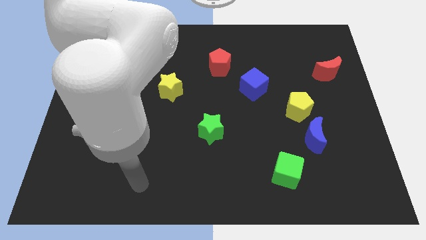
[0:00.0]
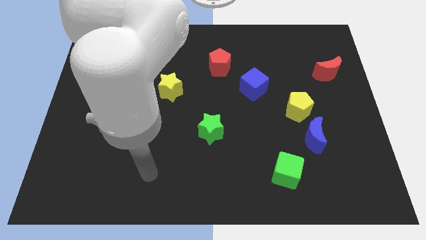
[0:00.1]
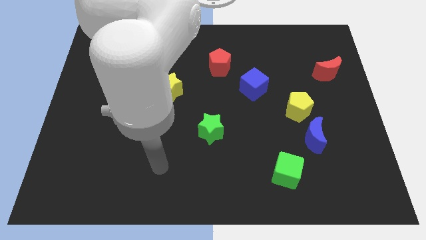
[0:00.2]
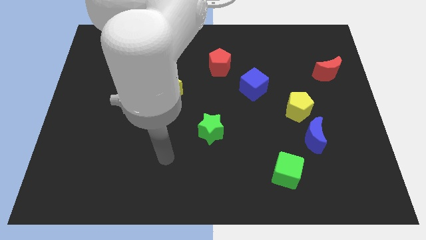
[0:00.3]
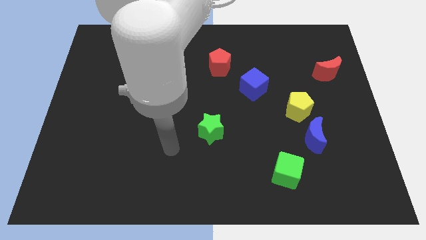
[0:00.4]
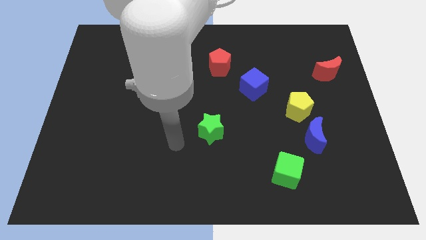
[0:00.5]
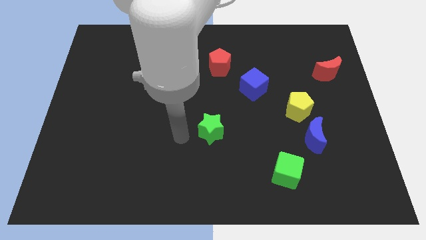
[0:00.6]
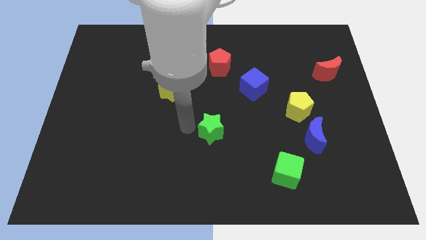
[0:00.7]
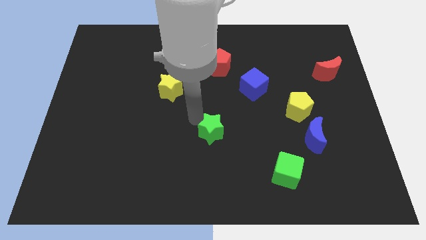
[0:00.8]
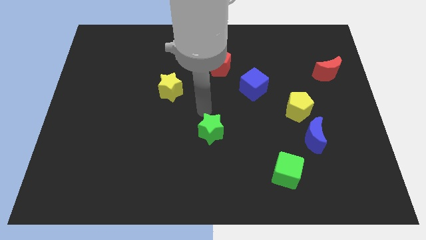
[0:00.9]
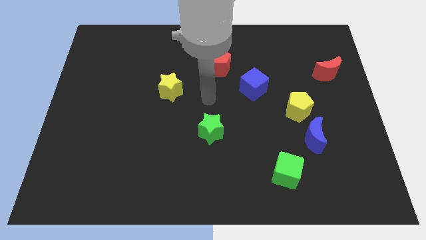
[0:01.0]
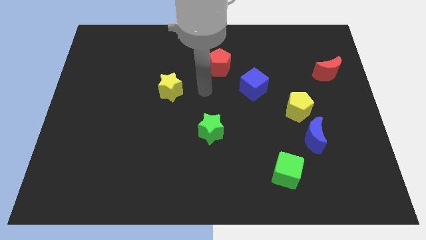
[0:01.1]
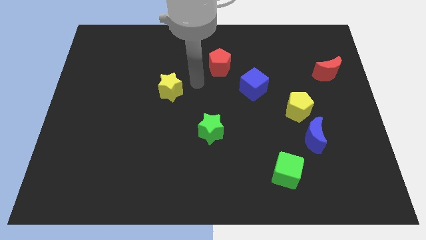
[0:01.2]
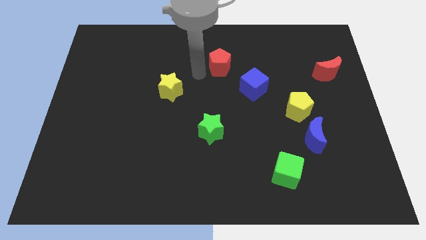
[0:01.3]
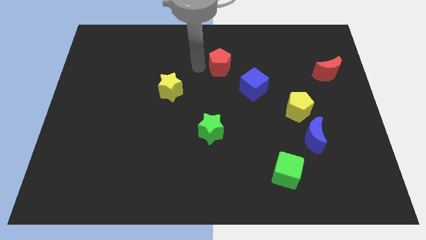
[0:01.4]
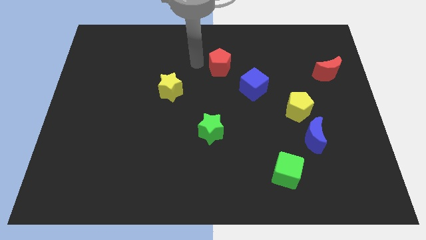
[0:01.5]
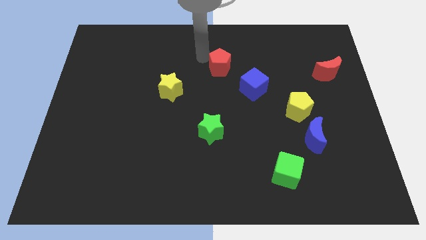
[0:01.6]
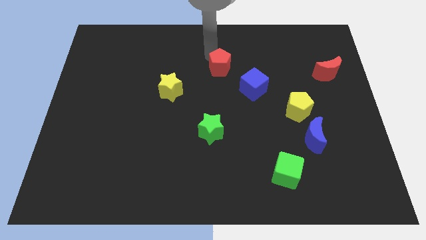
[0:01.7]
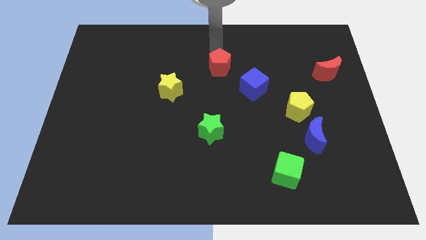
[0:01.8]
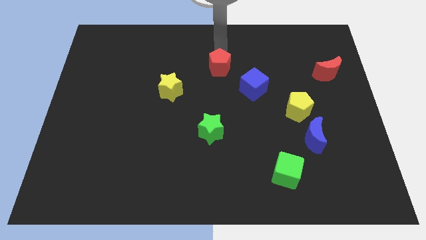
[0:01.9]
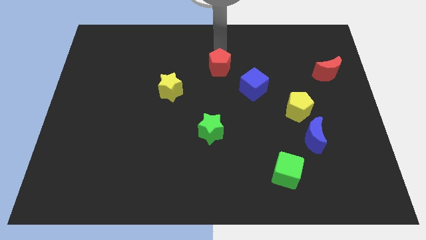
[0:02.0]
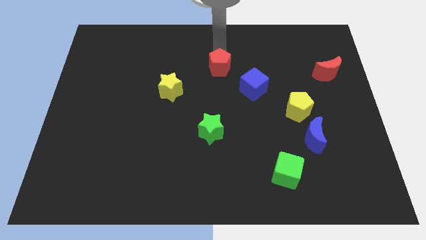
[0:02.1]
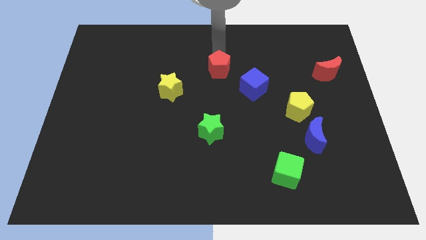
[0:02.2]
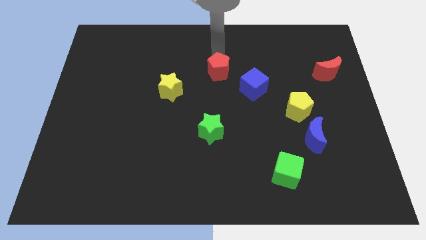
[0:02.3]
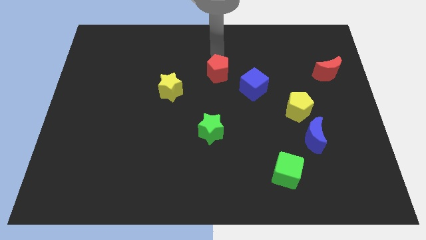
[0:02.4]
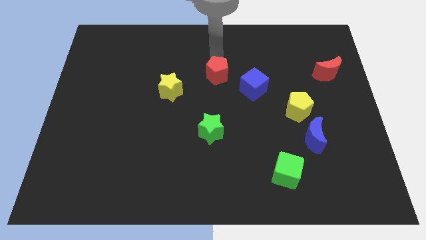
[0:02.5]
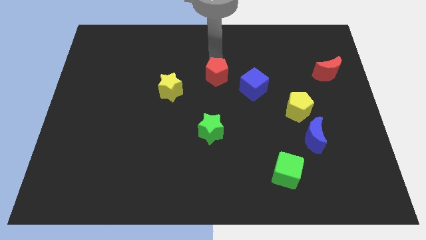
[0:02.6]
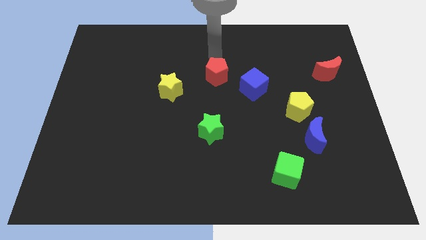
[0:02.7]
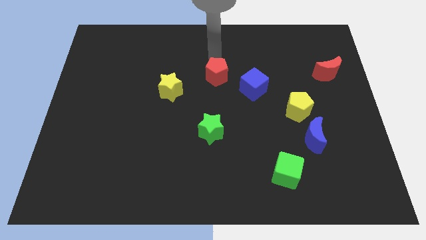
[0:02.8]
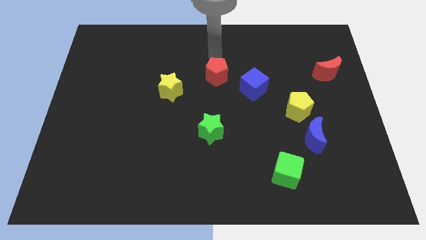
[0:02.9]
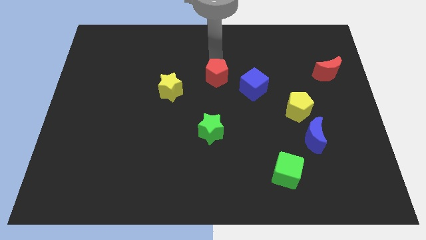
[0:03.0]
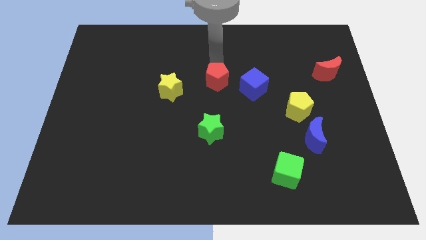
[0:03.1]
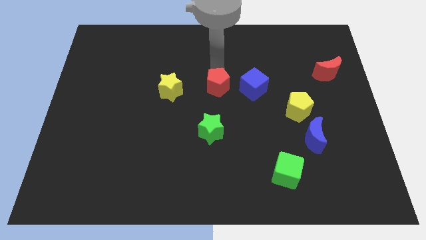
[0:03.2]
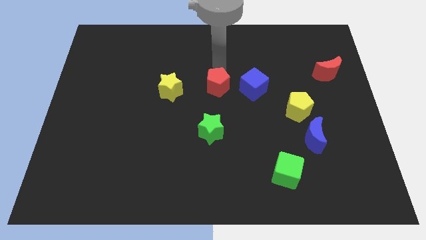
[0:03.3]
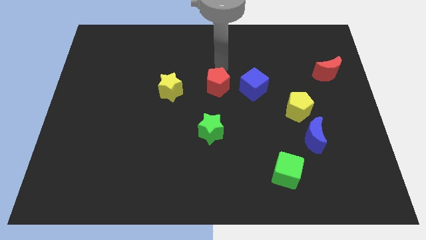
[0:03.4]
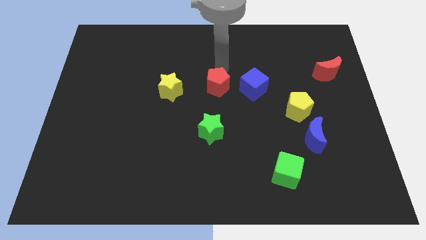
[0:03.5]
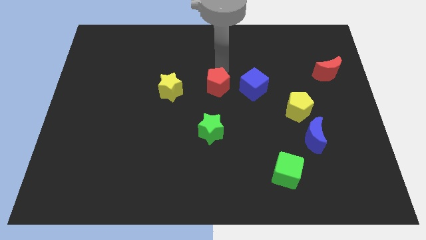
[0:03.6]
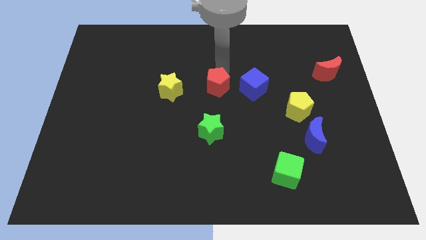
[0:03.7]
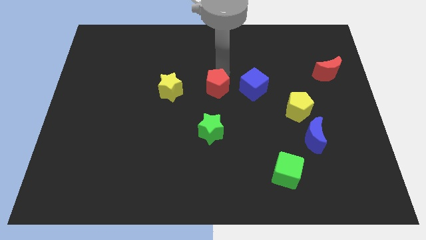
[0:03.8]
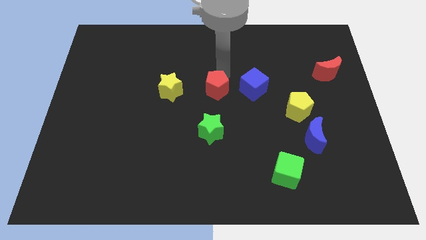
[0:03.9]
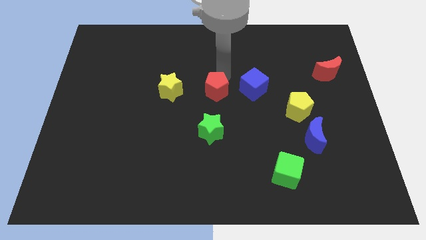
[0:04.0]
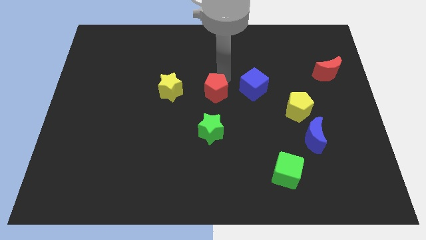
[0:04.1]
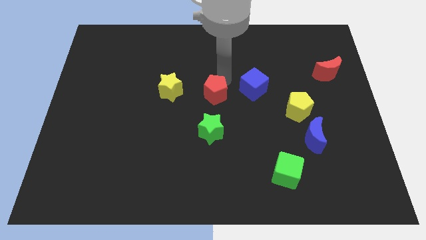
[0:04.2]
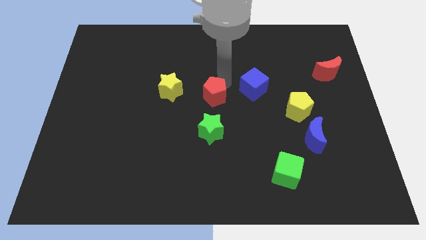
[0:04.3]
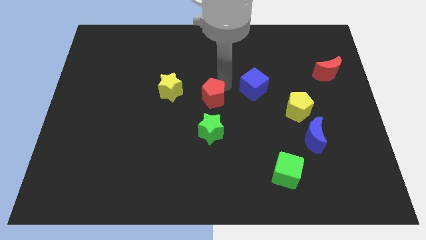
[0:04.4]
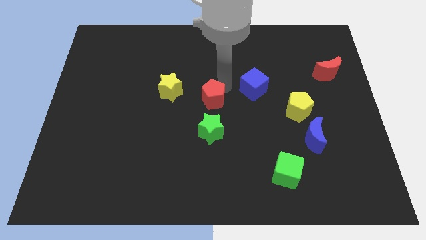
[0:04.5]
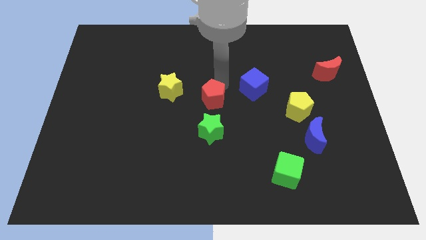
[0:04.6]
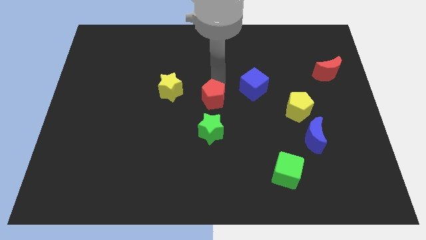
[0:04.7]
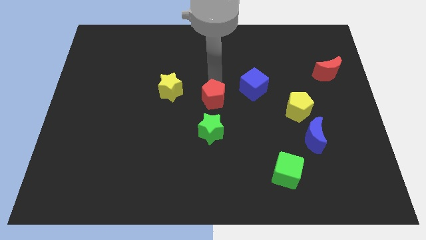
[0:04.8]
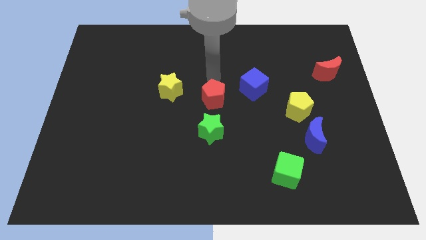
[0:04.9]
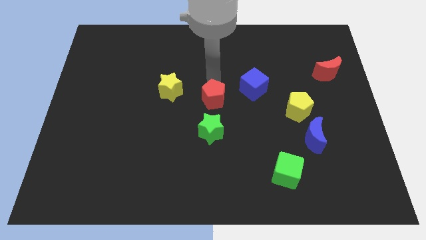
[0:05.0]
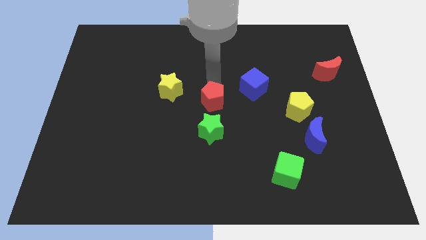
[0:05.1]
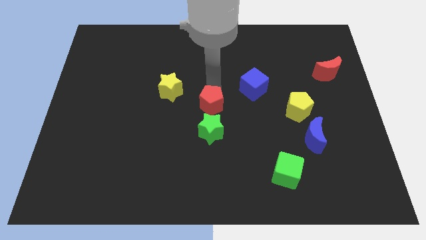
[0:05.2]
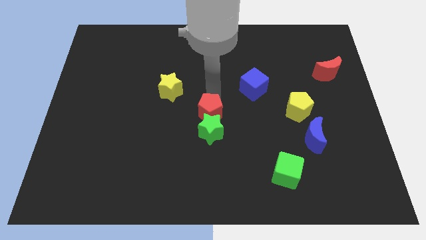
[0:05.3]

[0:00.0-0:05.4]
push the red pentagon next to the green star

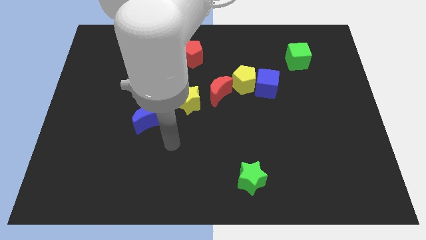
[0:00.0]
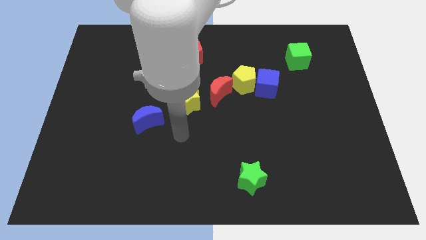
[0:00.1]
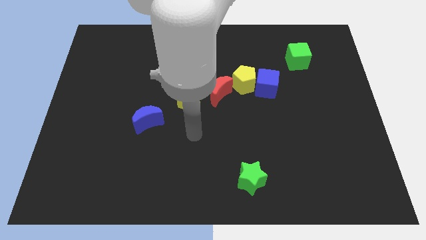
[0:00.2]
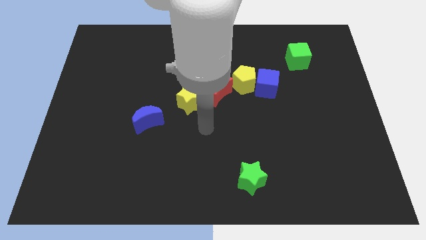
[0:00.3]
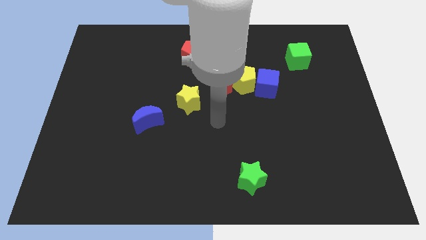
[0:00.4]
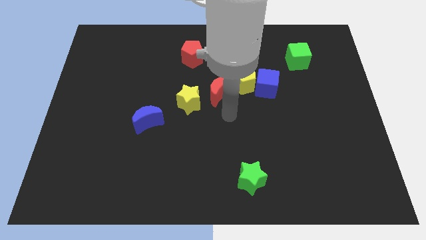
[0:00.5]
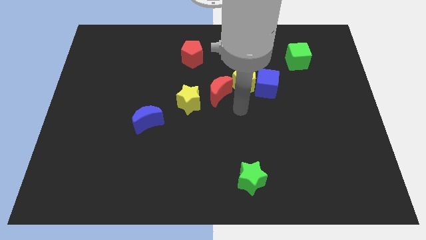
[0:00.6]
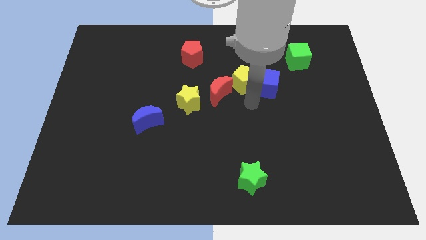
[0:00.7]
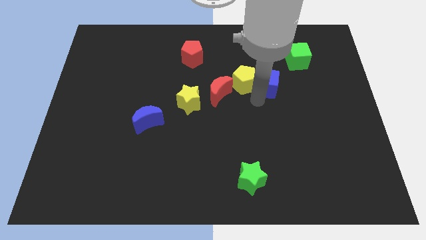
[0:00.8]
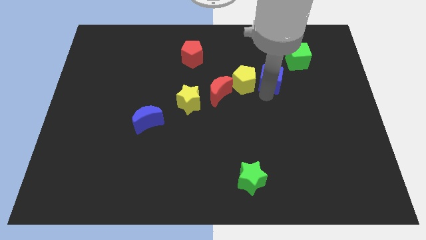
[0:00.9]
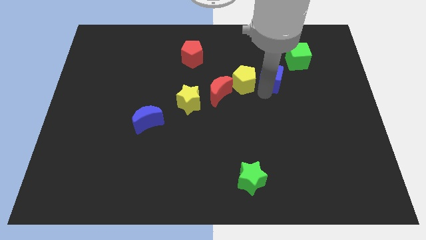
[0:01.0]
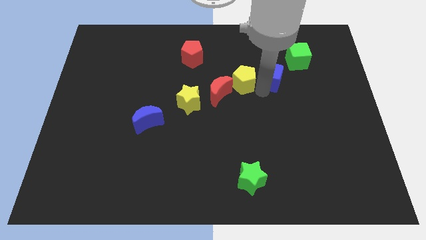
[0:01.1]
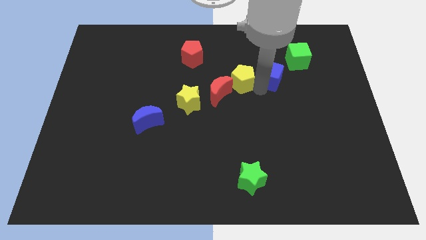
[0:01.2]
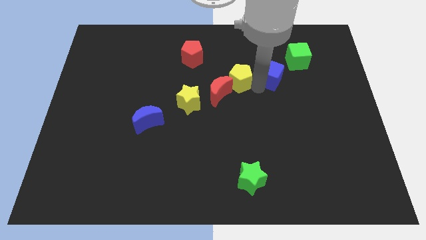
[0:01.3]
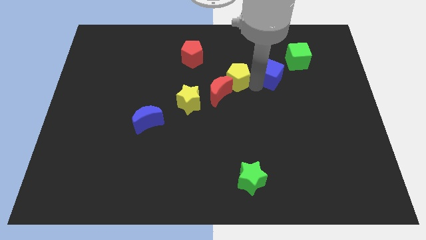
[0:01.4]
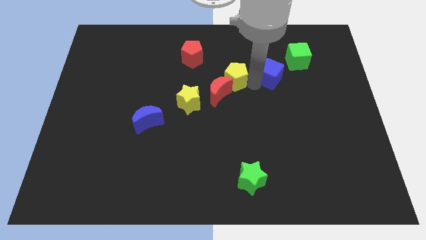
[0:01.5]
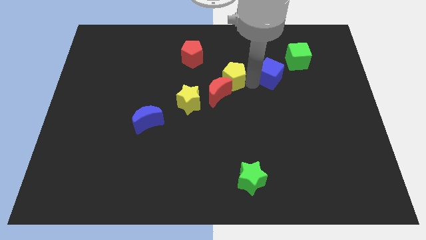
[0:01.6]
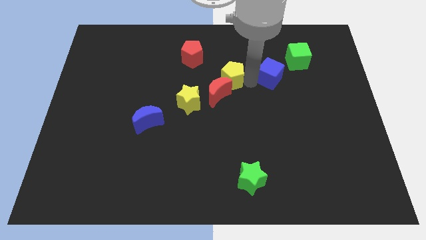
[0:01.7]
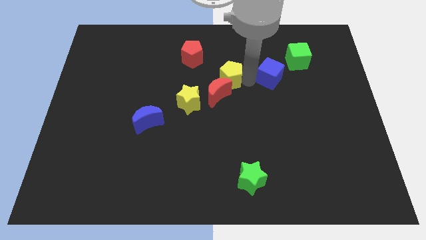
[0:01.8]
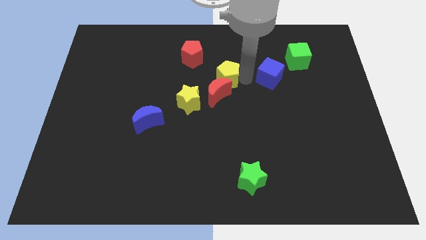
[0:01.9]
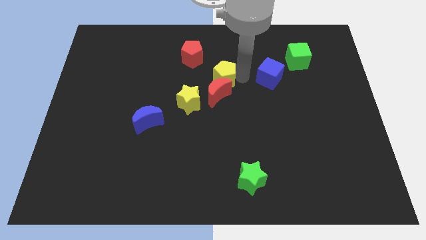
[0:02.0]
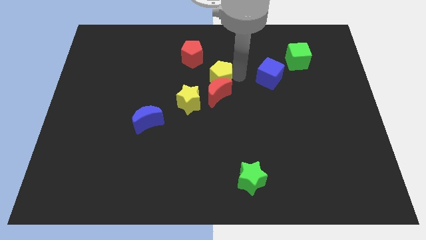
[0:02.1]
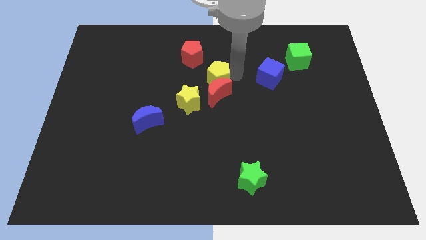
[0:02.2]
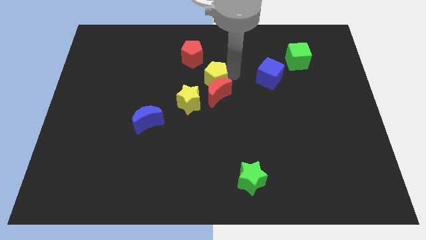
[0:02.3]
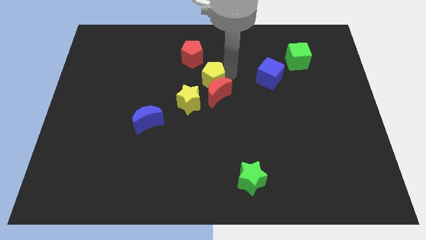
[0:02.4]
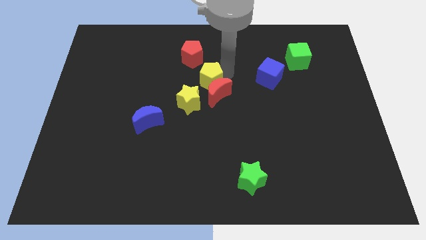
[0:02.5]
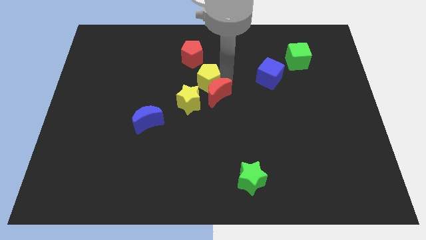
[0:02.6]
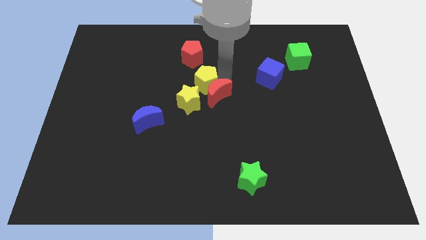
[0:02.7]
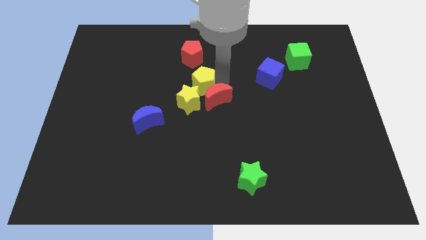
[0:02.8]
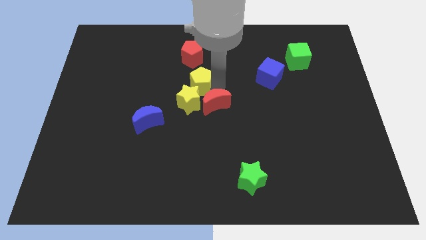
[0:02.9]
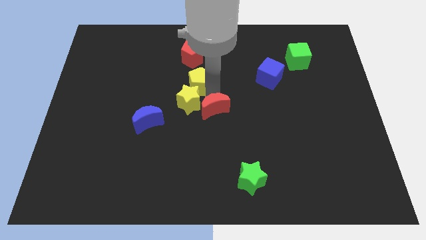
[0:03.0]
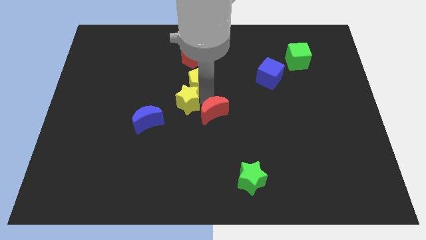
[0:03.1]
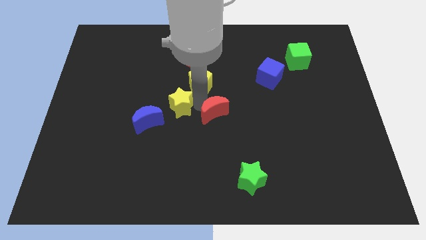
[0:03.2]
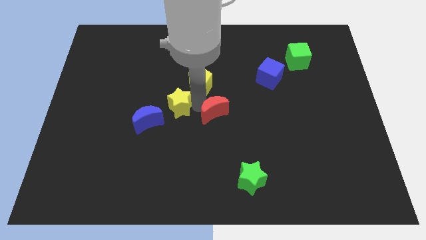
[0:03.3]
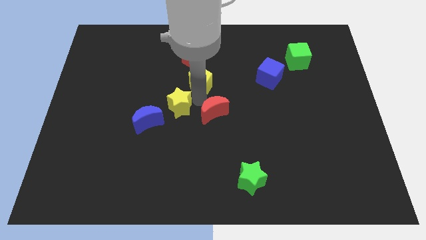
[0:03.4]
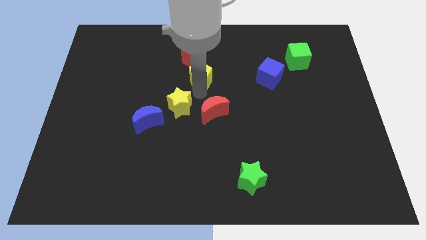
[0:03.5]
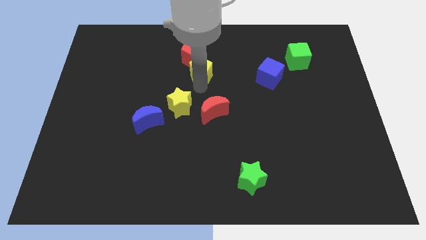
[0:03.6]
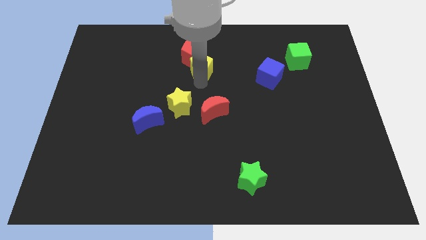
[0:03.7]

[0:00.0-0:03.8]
move the yellow pentagon towards the red pentagon
